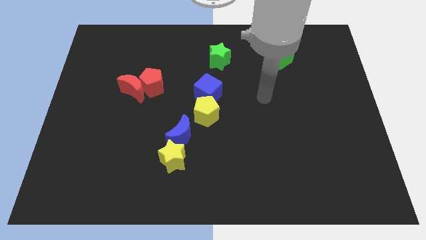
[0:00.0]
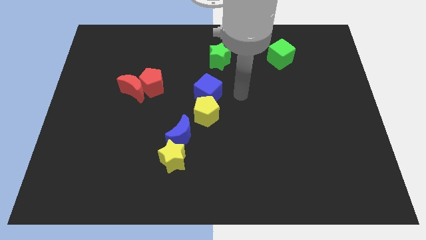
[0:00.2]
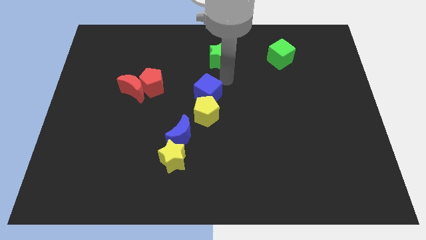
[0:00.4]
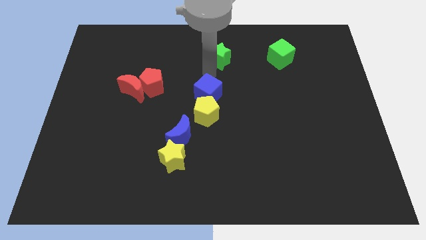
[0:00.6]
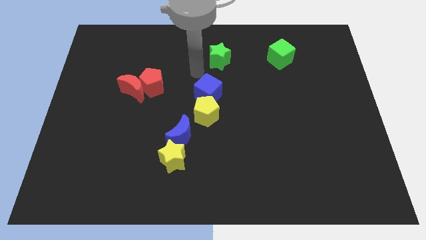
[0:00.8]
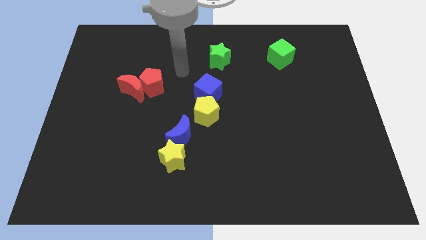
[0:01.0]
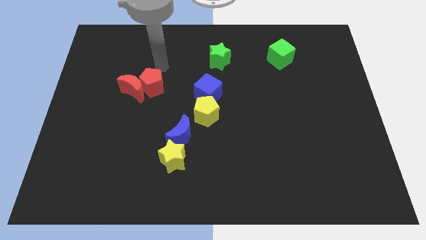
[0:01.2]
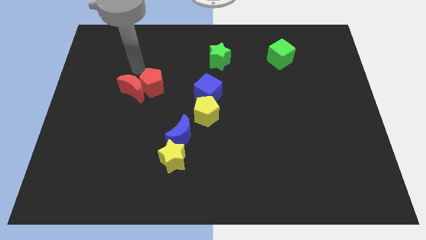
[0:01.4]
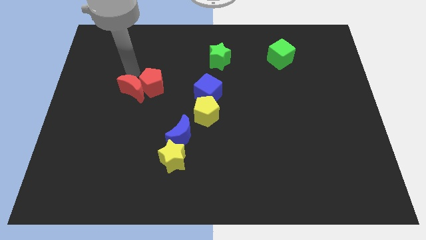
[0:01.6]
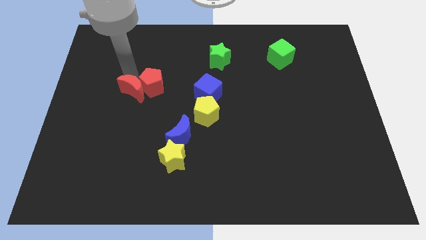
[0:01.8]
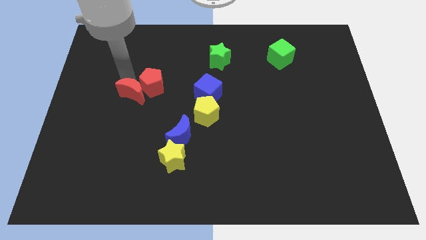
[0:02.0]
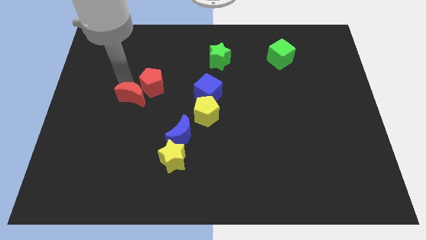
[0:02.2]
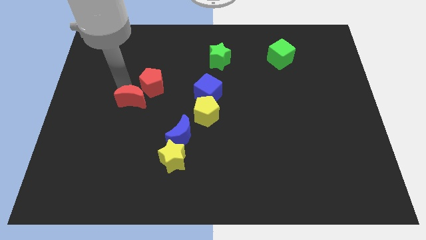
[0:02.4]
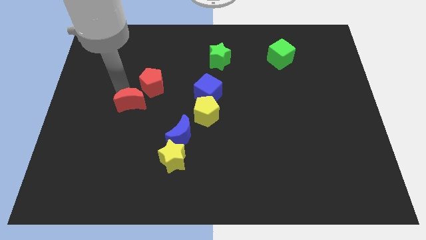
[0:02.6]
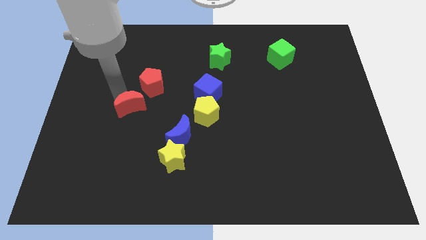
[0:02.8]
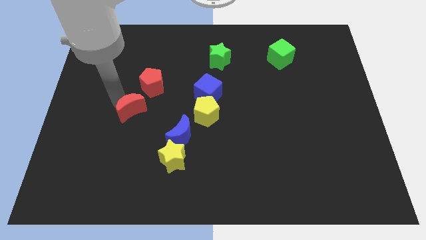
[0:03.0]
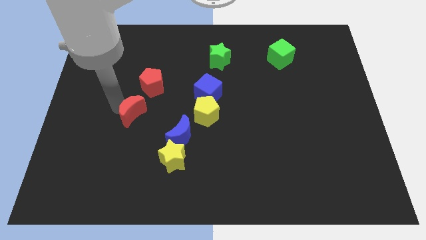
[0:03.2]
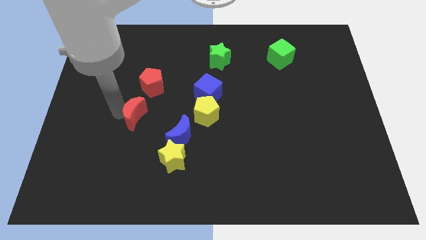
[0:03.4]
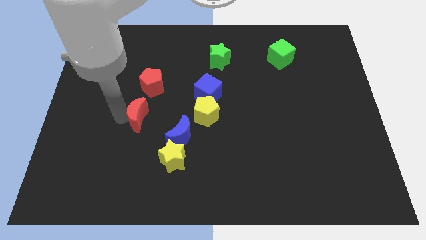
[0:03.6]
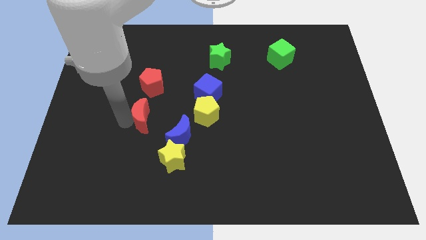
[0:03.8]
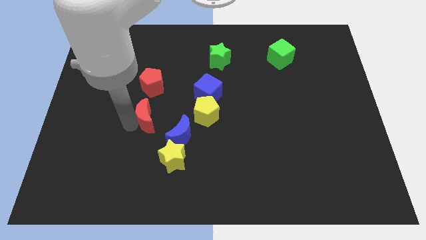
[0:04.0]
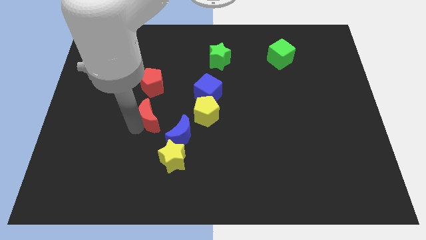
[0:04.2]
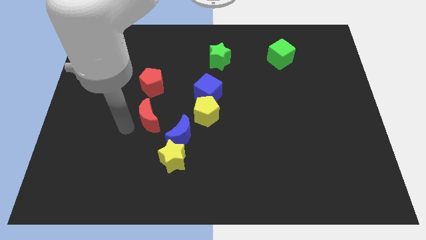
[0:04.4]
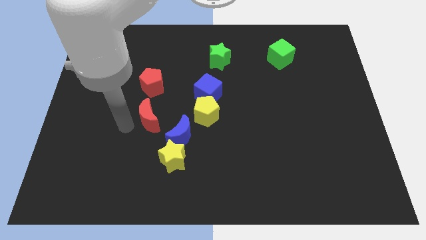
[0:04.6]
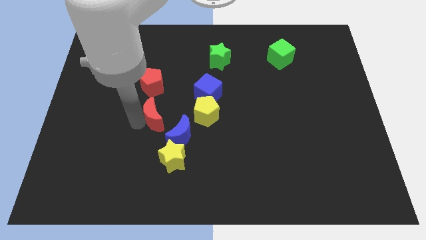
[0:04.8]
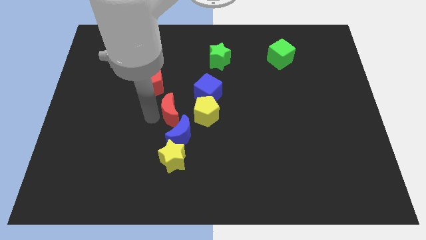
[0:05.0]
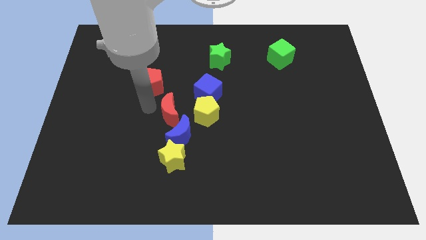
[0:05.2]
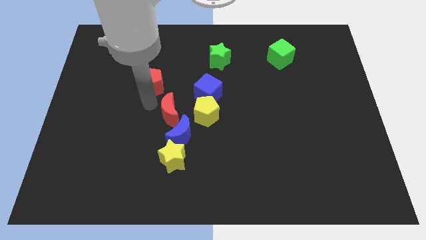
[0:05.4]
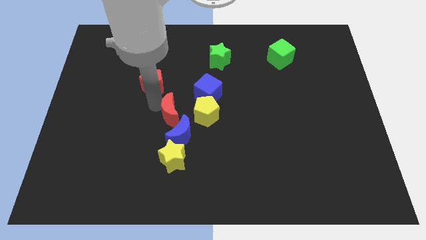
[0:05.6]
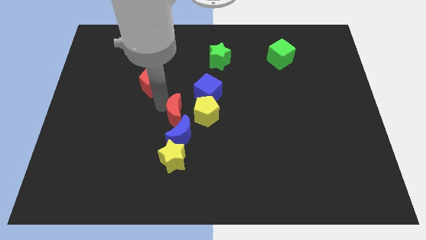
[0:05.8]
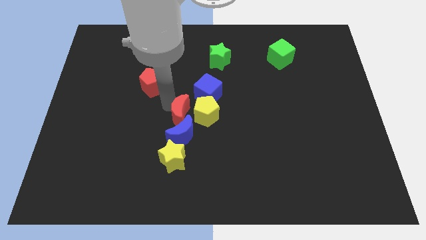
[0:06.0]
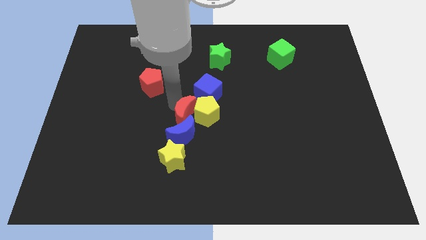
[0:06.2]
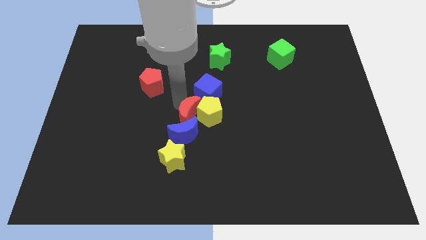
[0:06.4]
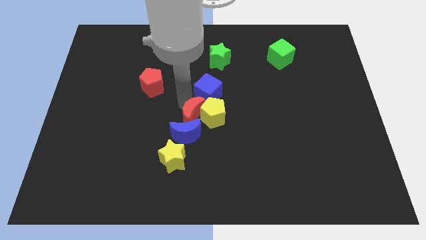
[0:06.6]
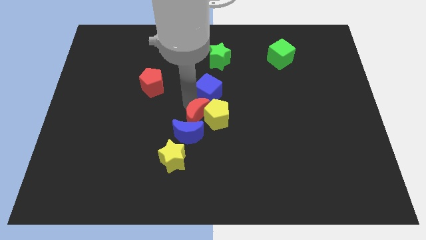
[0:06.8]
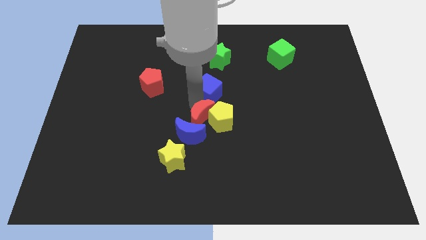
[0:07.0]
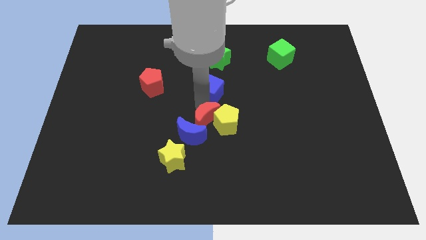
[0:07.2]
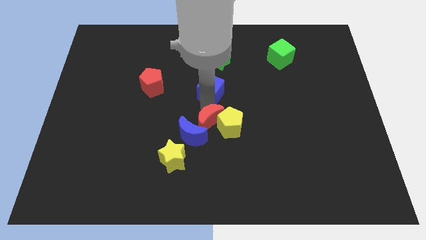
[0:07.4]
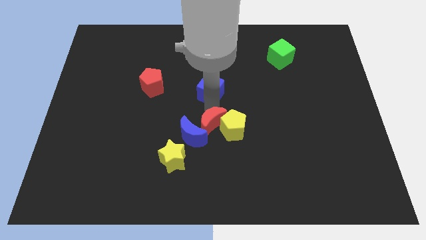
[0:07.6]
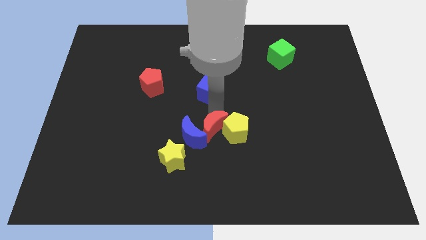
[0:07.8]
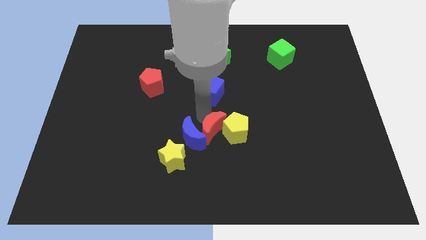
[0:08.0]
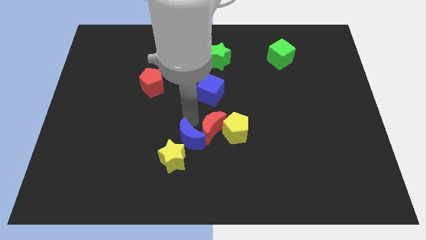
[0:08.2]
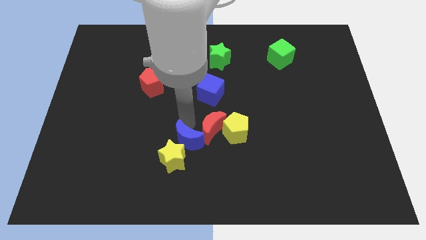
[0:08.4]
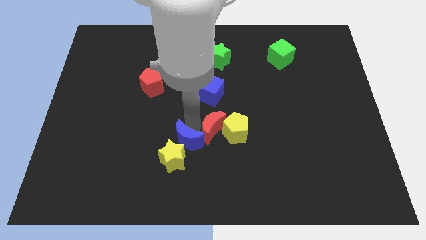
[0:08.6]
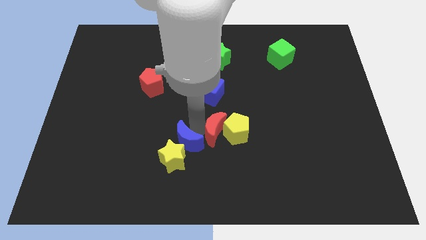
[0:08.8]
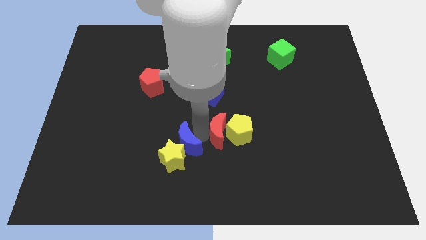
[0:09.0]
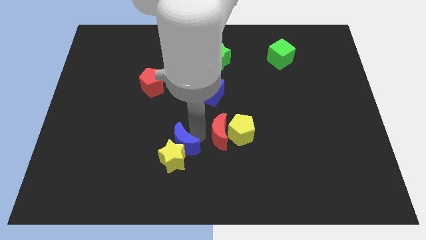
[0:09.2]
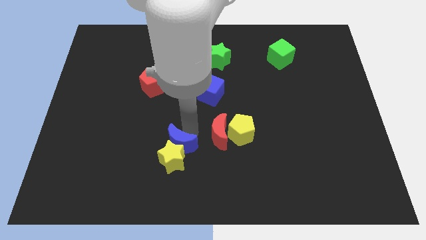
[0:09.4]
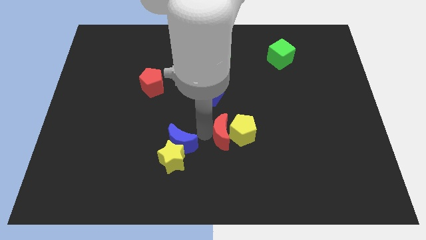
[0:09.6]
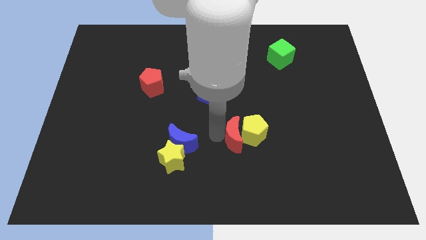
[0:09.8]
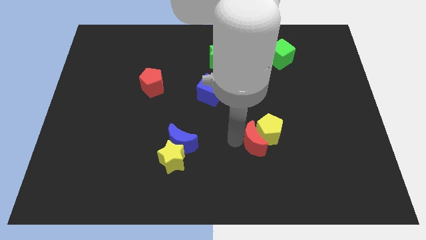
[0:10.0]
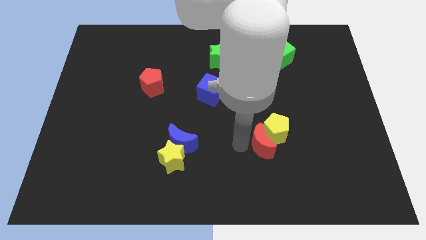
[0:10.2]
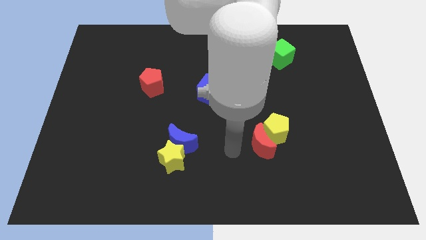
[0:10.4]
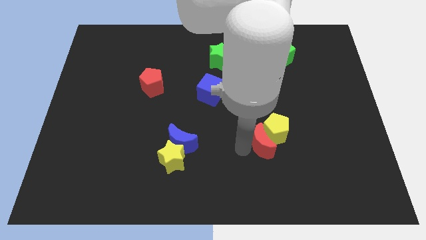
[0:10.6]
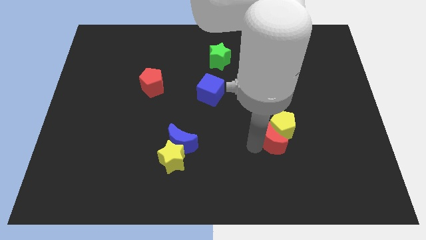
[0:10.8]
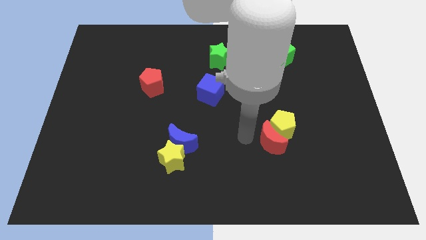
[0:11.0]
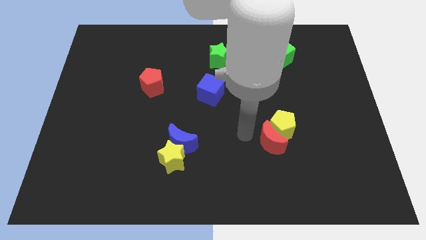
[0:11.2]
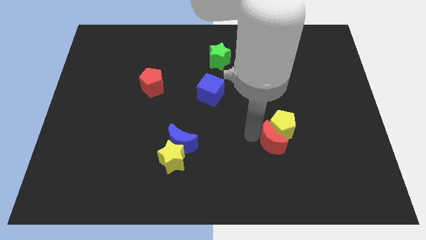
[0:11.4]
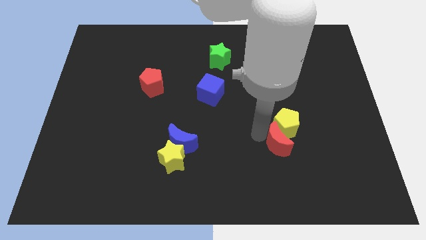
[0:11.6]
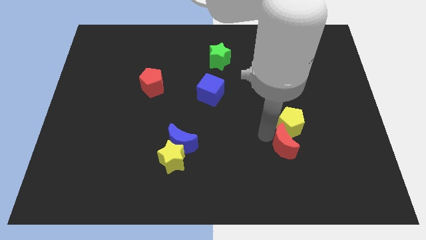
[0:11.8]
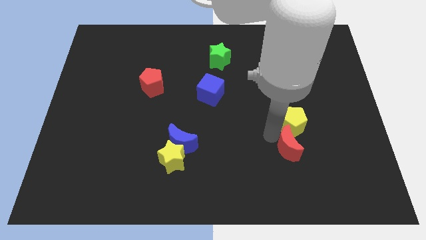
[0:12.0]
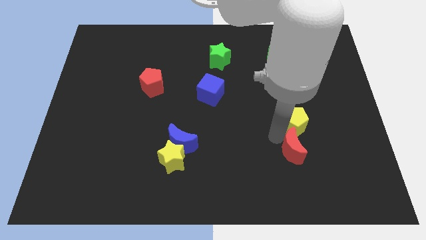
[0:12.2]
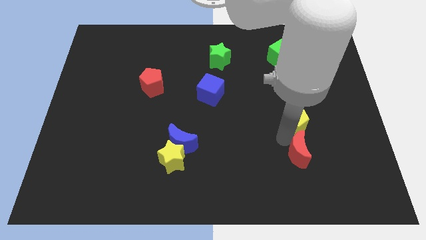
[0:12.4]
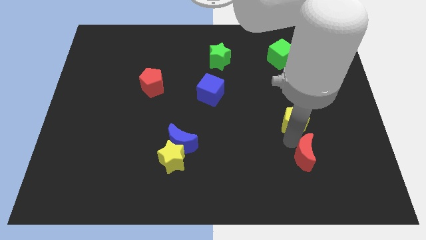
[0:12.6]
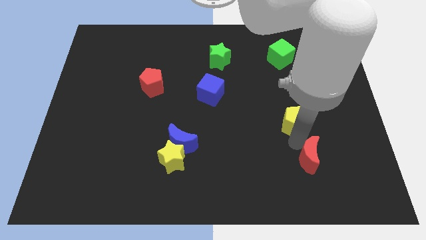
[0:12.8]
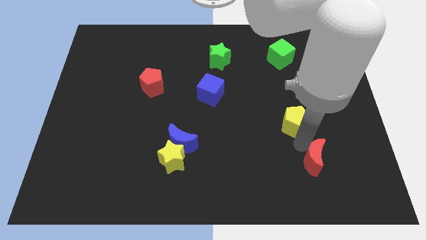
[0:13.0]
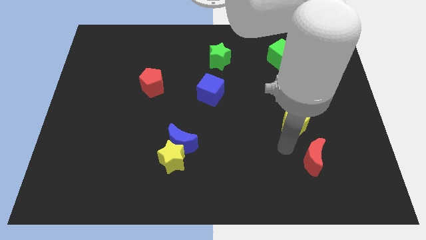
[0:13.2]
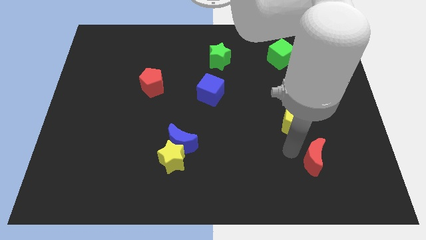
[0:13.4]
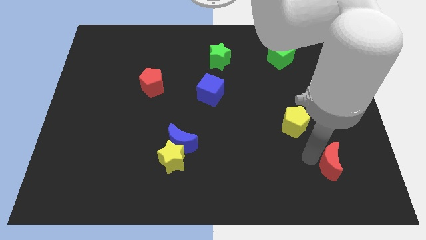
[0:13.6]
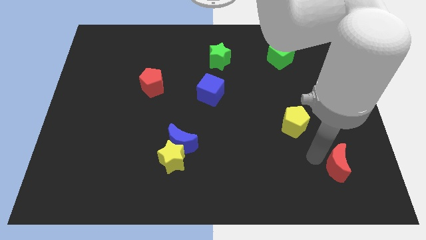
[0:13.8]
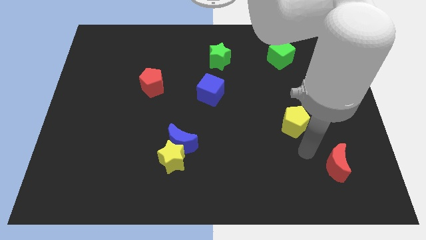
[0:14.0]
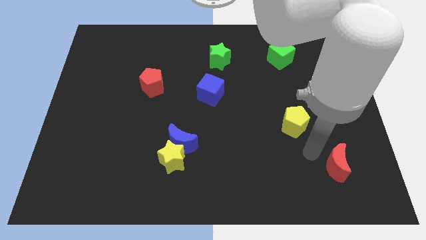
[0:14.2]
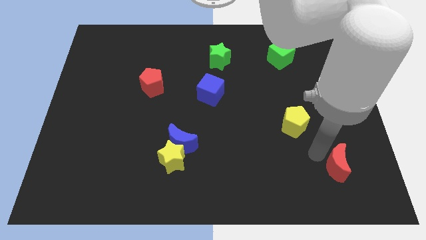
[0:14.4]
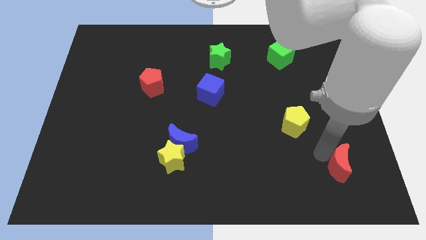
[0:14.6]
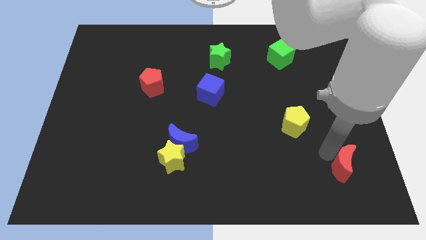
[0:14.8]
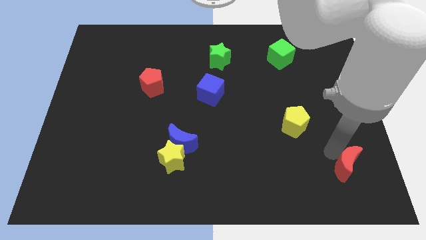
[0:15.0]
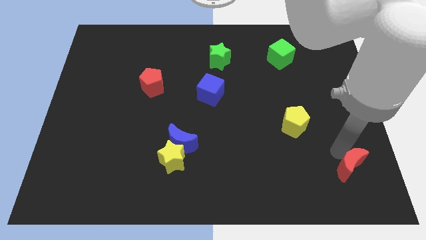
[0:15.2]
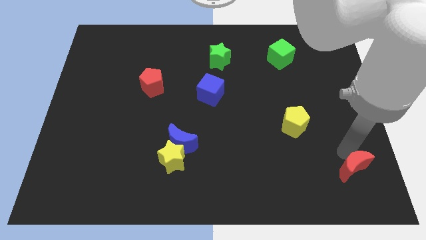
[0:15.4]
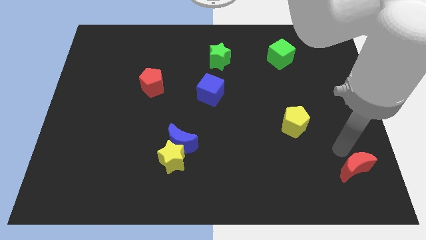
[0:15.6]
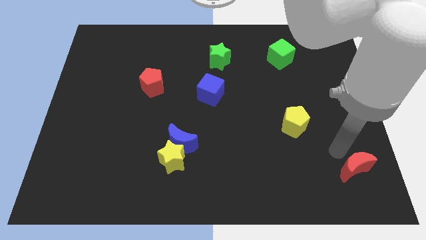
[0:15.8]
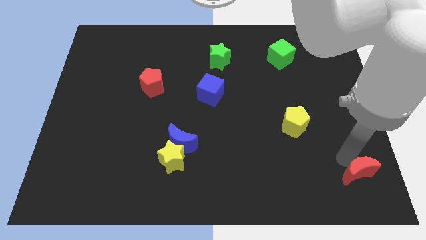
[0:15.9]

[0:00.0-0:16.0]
put the red moon to the bottom right of the board
